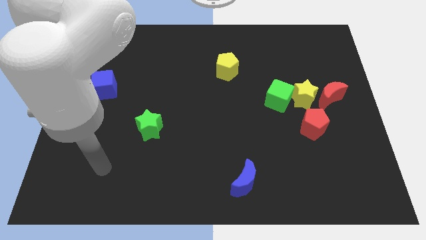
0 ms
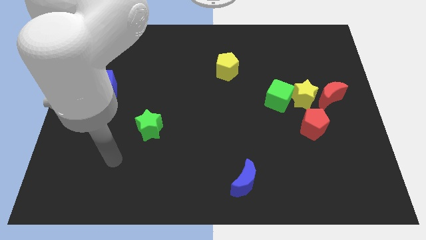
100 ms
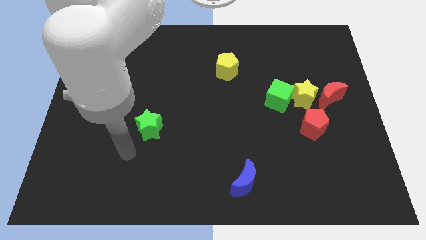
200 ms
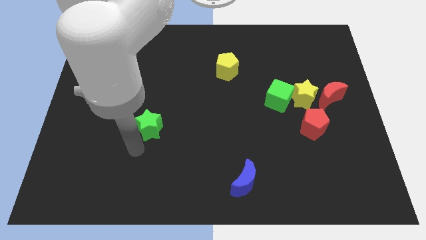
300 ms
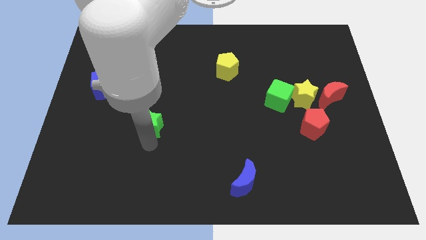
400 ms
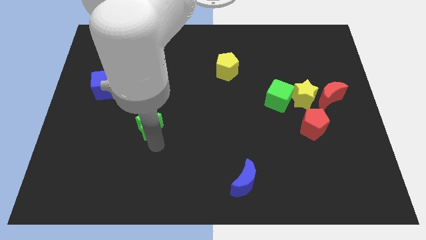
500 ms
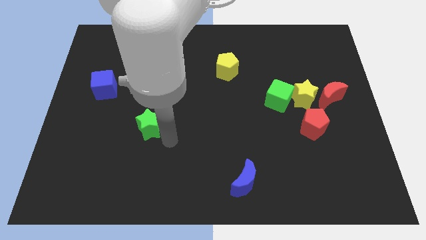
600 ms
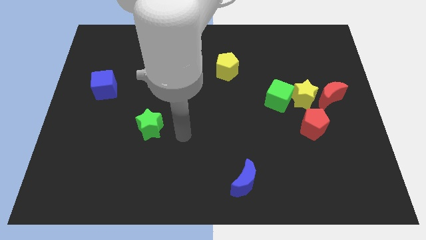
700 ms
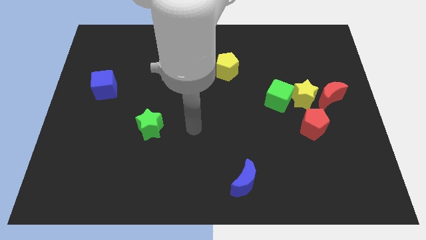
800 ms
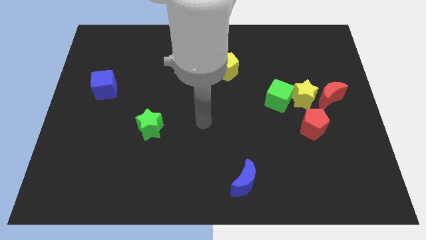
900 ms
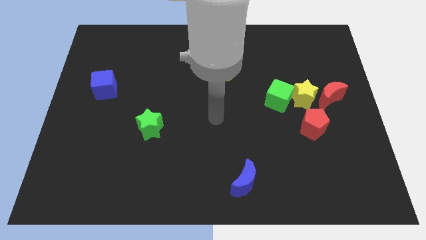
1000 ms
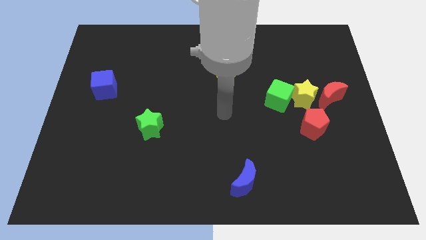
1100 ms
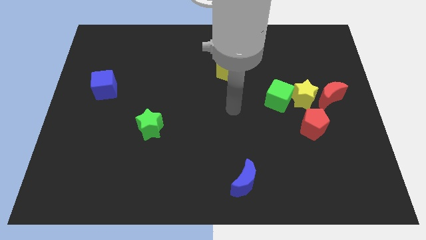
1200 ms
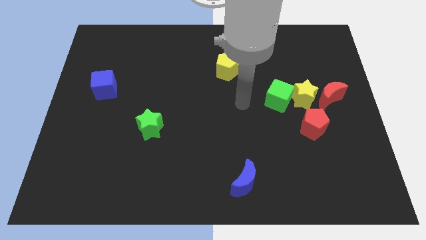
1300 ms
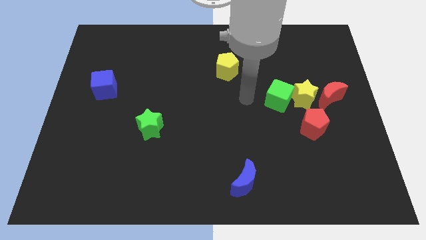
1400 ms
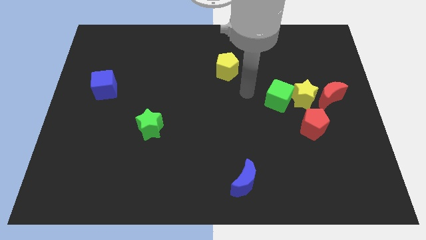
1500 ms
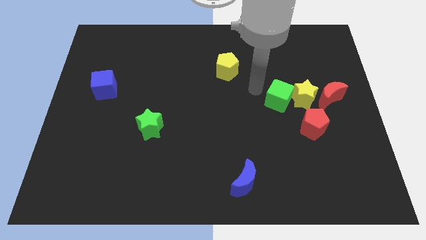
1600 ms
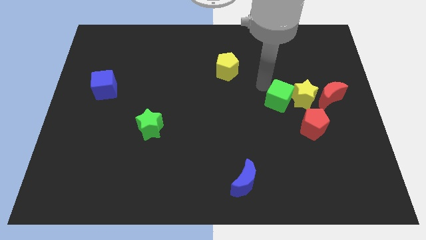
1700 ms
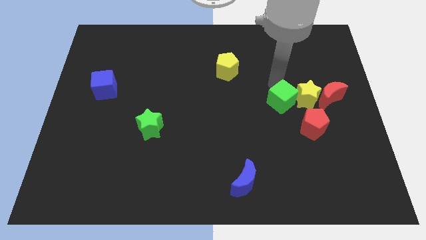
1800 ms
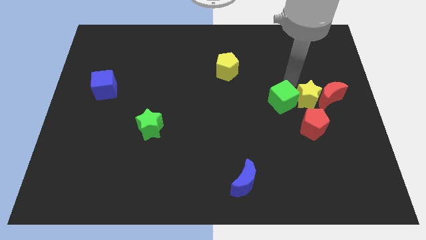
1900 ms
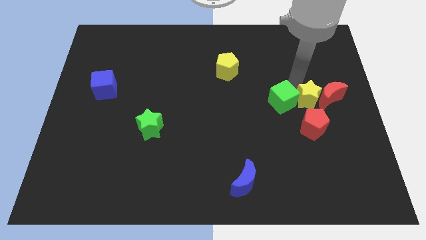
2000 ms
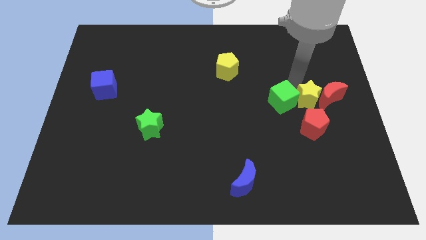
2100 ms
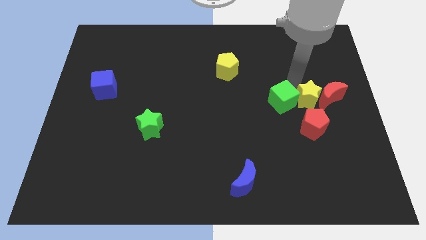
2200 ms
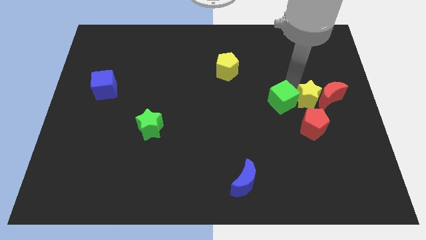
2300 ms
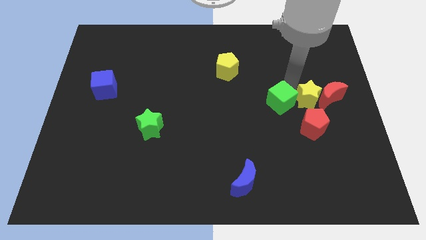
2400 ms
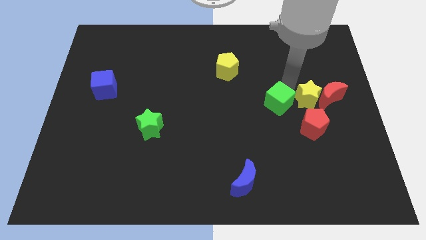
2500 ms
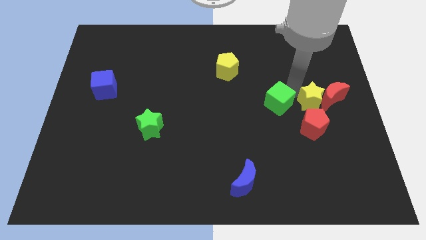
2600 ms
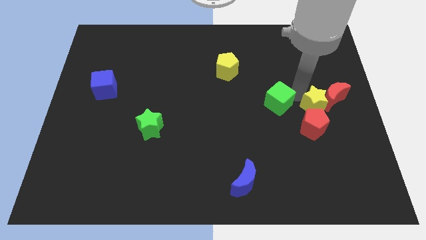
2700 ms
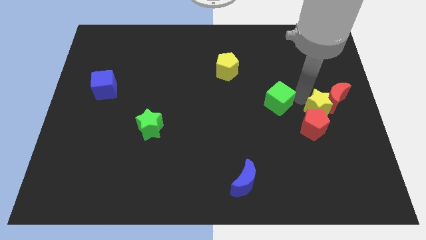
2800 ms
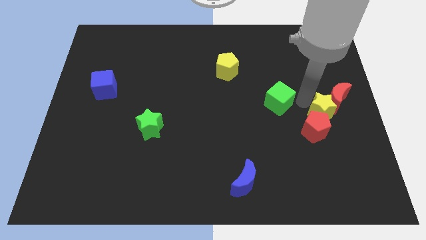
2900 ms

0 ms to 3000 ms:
separate the green cube from the yellow star

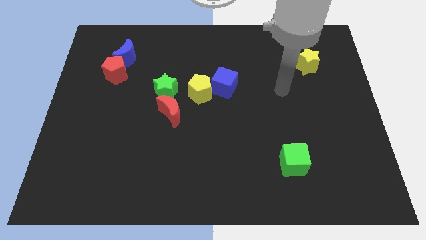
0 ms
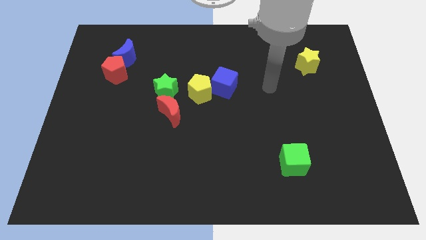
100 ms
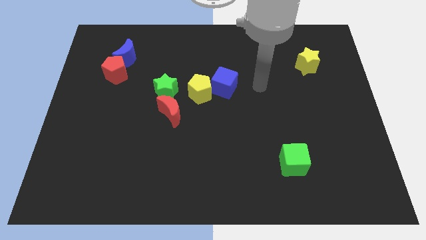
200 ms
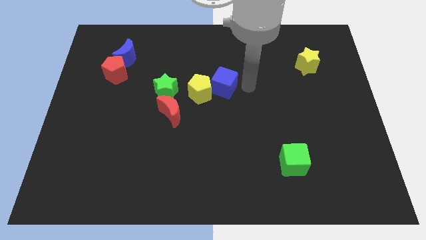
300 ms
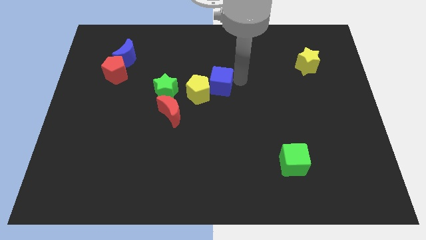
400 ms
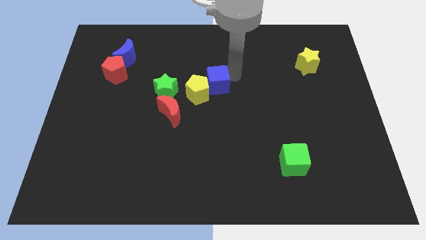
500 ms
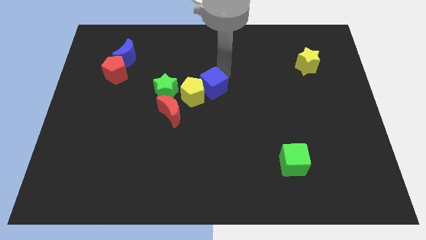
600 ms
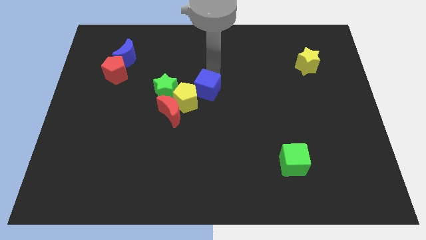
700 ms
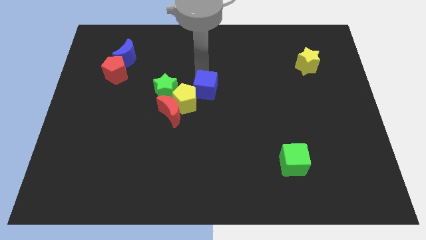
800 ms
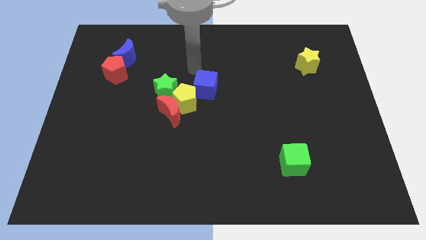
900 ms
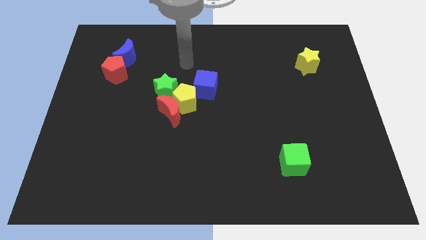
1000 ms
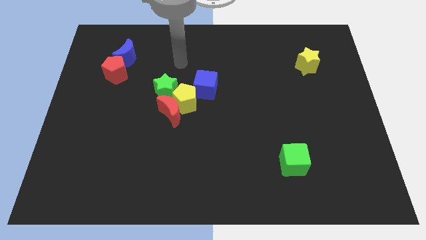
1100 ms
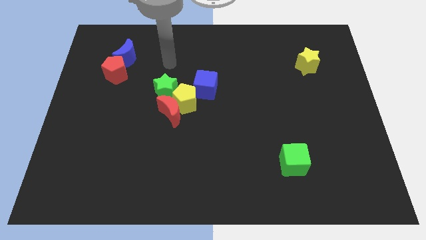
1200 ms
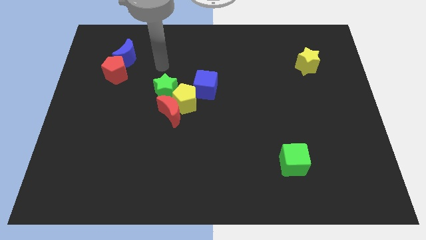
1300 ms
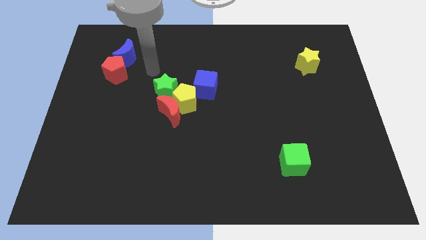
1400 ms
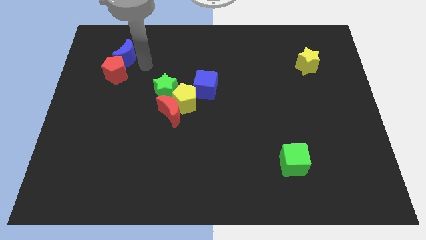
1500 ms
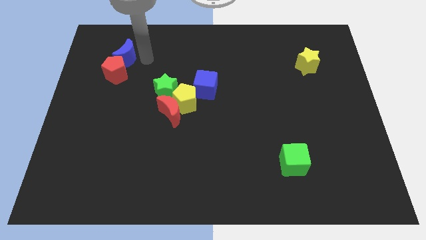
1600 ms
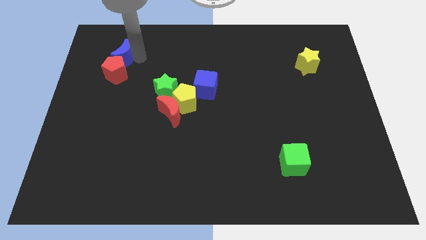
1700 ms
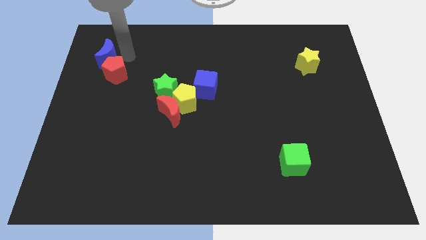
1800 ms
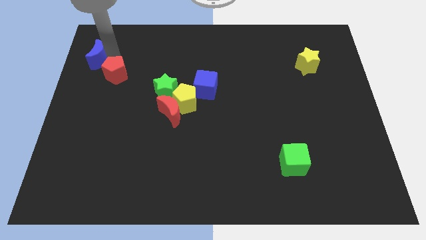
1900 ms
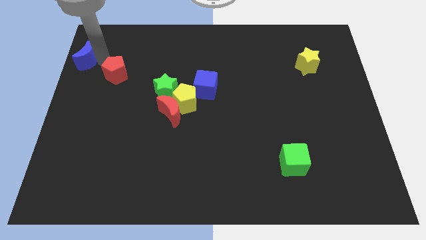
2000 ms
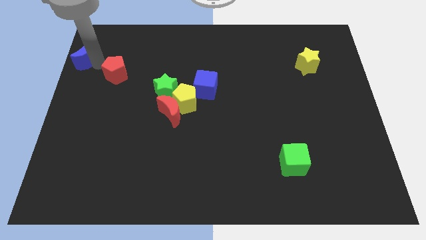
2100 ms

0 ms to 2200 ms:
separate the red pentagon from the blue moon

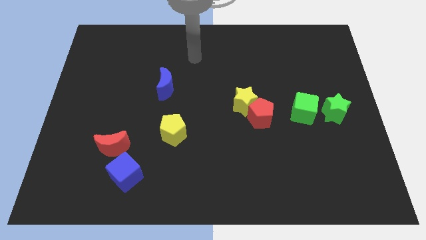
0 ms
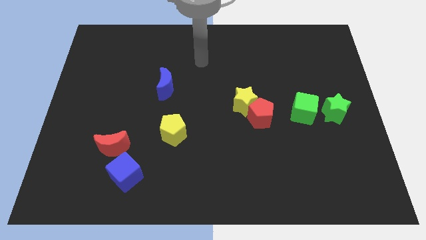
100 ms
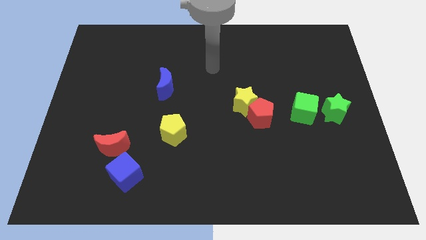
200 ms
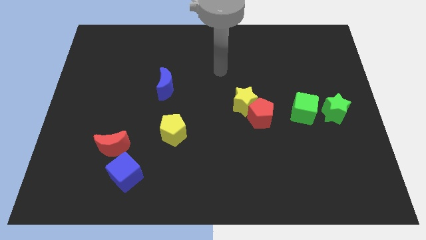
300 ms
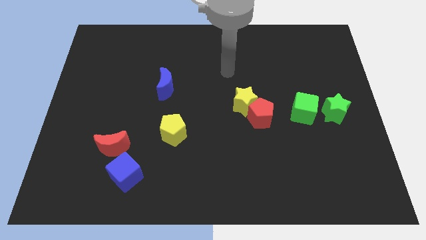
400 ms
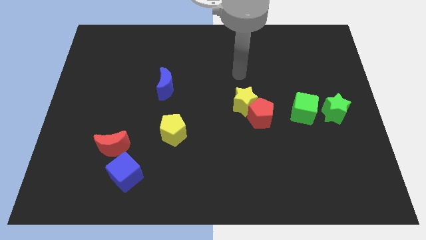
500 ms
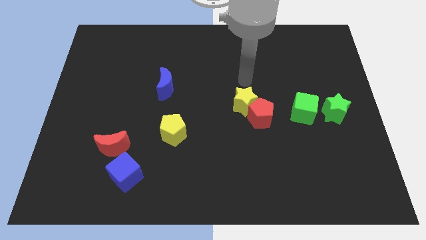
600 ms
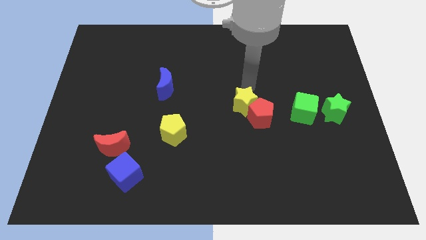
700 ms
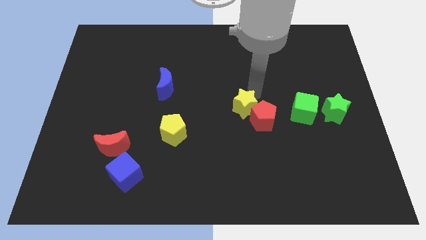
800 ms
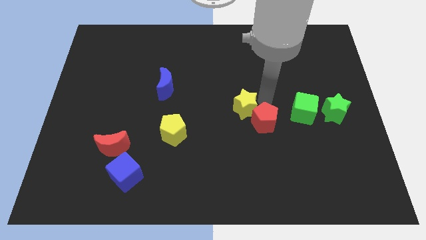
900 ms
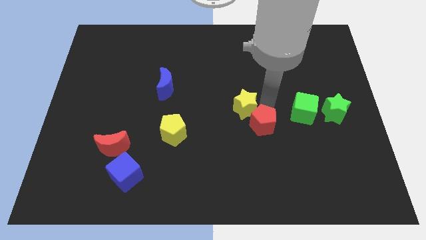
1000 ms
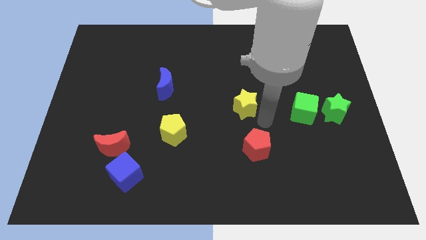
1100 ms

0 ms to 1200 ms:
move the yellow star away from the red pentagon

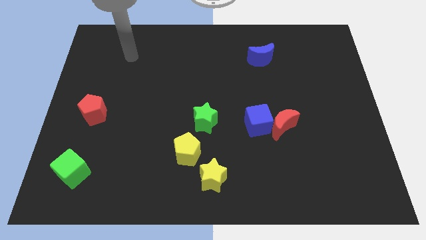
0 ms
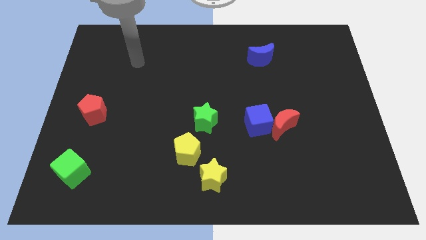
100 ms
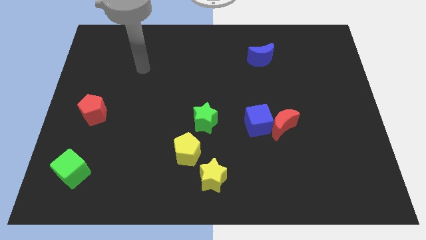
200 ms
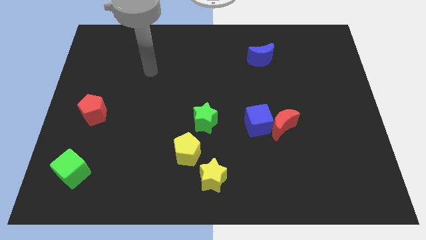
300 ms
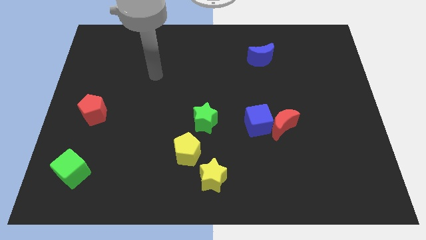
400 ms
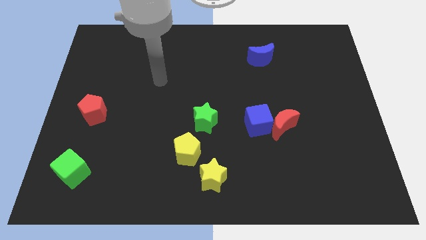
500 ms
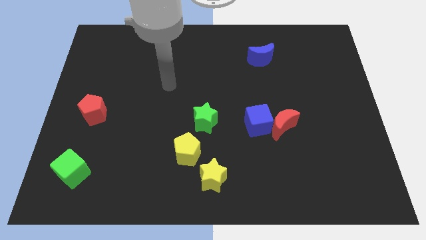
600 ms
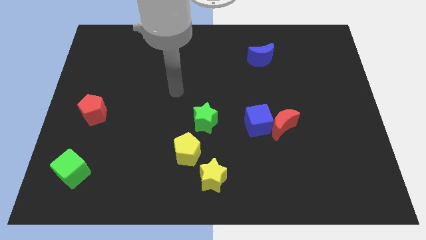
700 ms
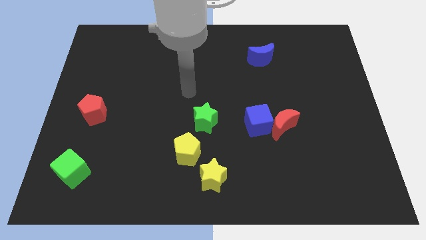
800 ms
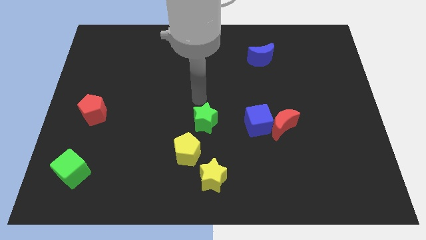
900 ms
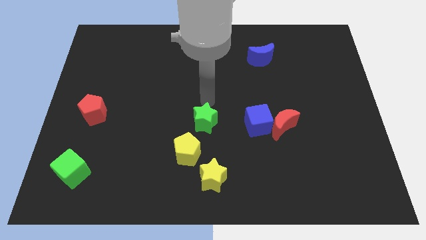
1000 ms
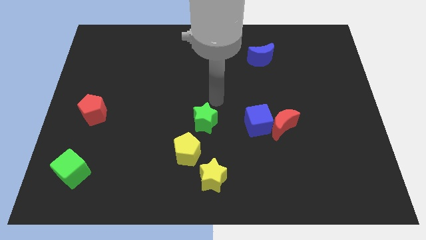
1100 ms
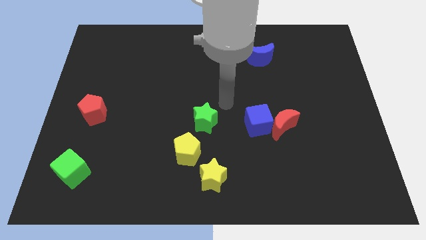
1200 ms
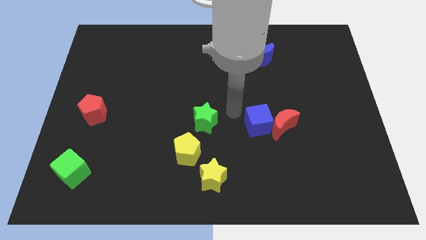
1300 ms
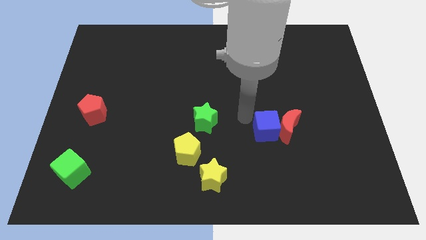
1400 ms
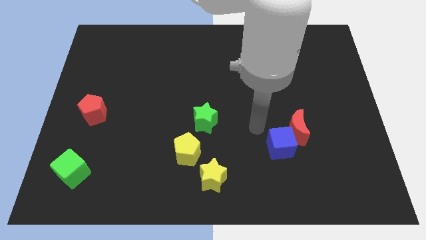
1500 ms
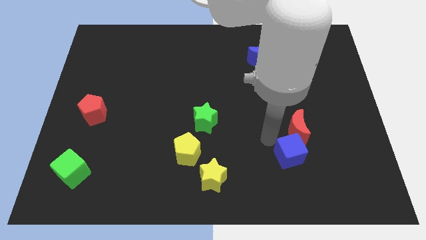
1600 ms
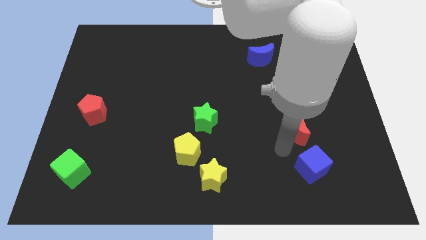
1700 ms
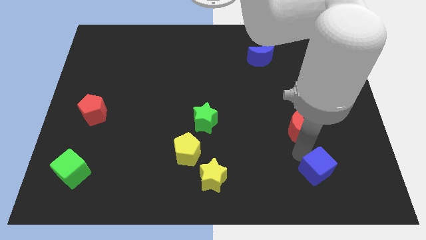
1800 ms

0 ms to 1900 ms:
pull the red moon apart from the blue cube

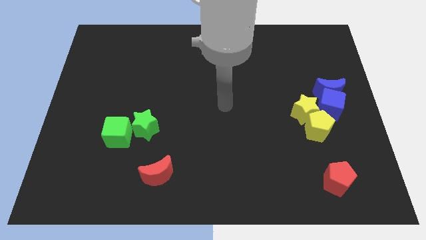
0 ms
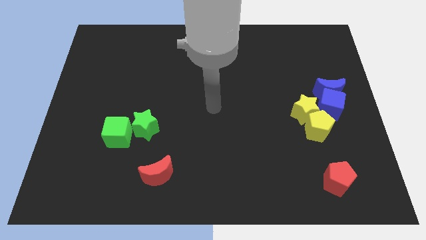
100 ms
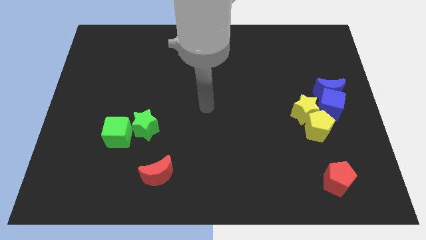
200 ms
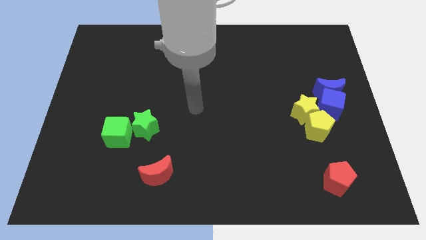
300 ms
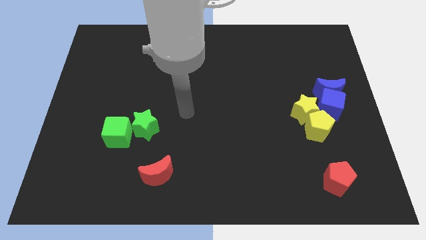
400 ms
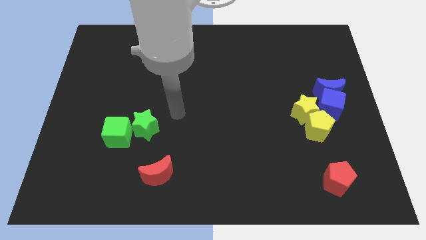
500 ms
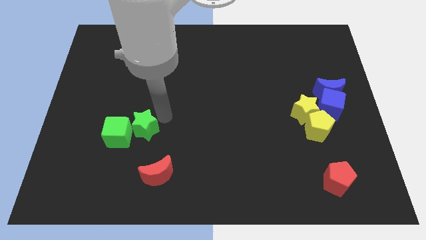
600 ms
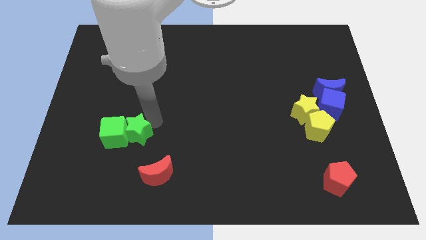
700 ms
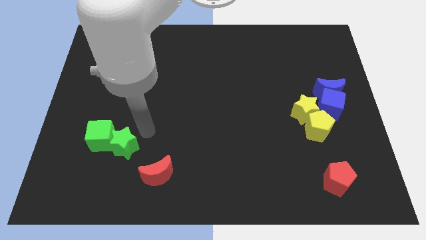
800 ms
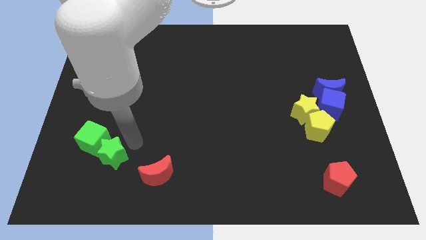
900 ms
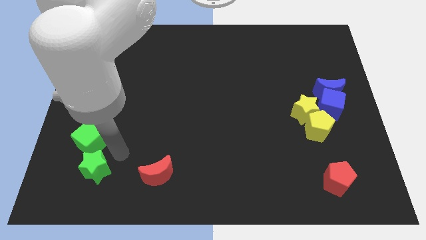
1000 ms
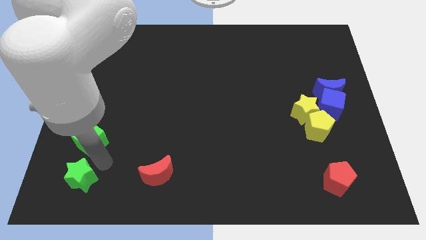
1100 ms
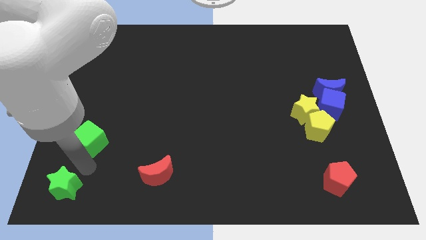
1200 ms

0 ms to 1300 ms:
separate the green cube from the green star

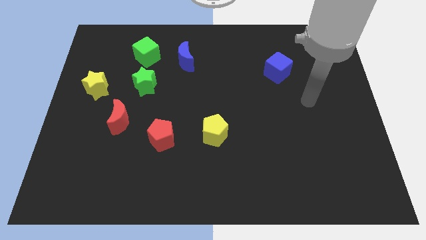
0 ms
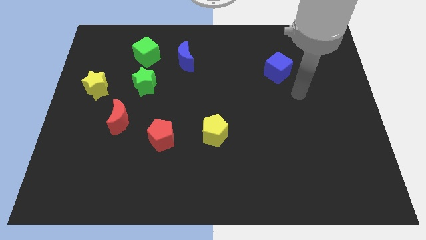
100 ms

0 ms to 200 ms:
move the blue moon away from the green cube
